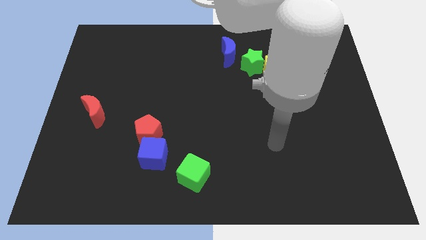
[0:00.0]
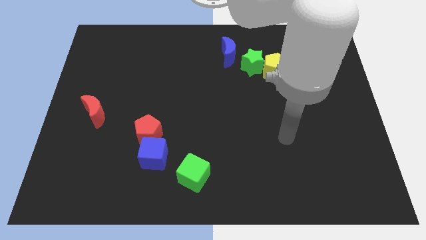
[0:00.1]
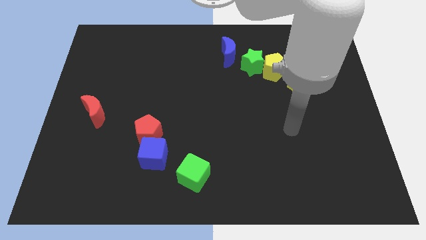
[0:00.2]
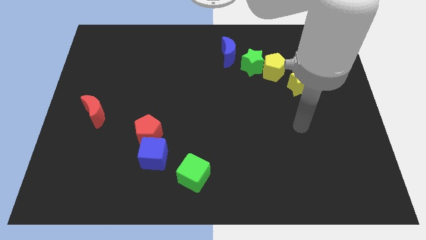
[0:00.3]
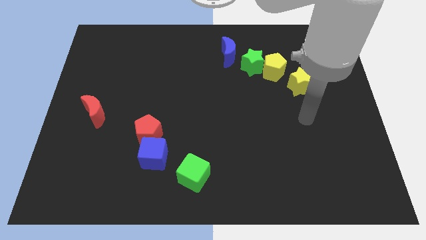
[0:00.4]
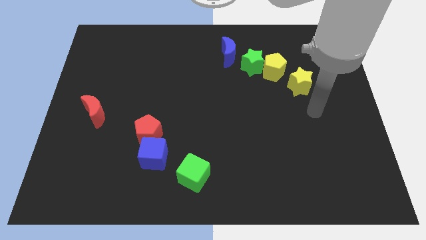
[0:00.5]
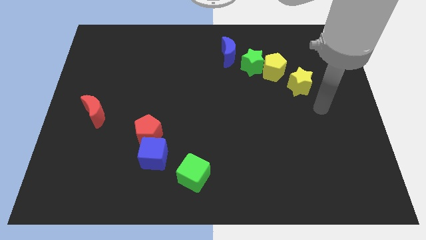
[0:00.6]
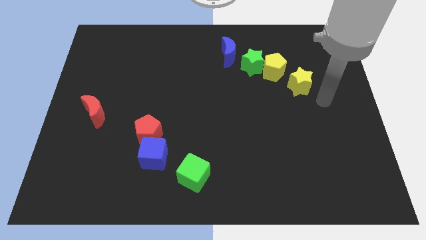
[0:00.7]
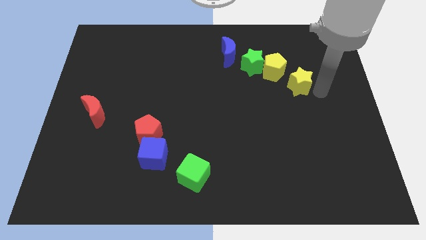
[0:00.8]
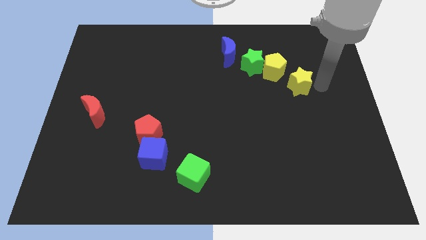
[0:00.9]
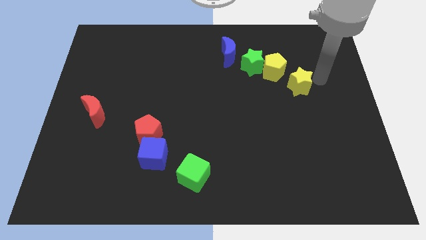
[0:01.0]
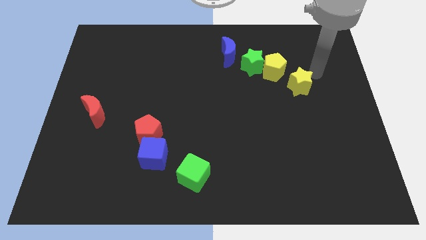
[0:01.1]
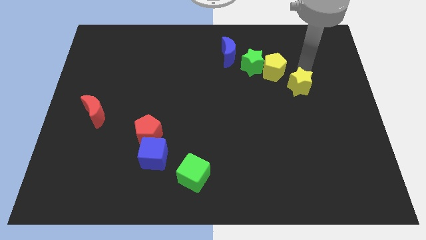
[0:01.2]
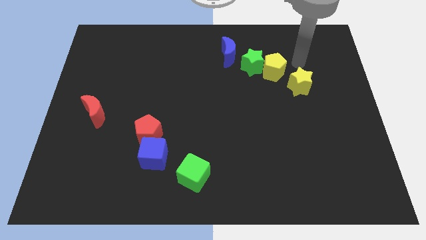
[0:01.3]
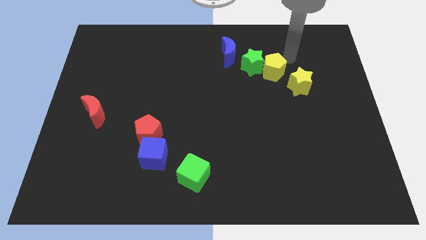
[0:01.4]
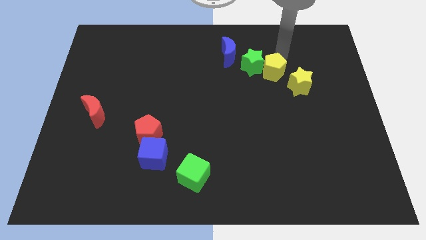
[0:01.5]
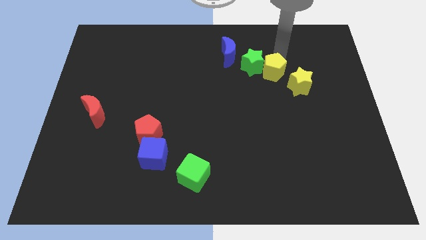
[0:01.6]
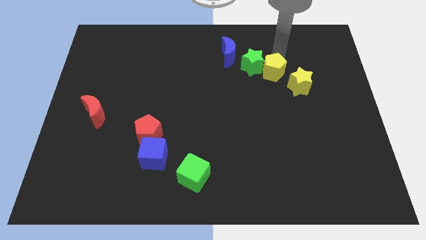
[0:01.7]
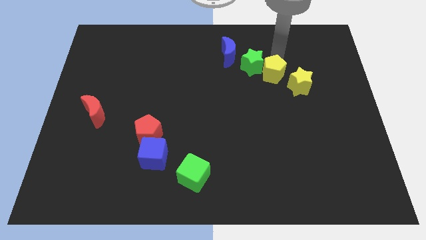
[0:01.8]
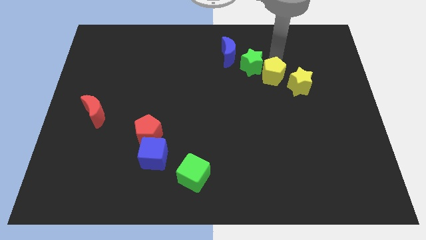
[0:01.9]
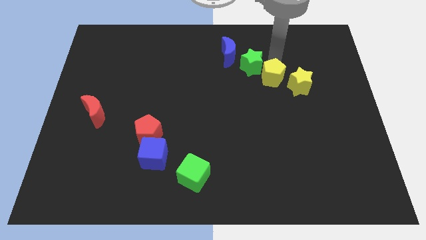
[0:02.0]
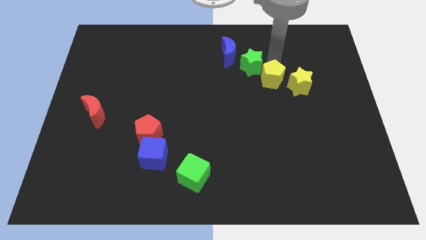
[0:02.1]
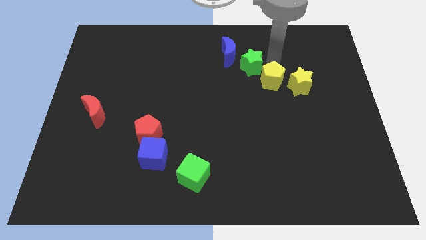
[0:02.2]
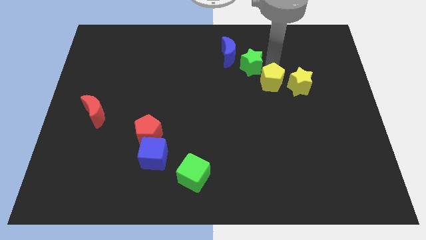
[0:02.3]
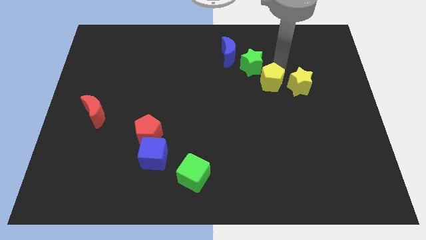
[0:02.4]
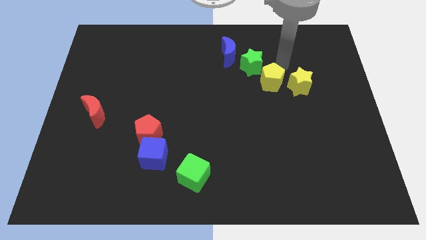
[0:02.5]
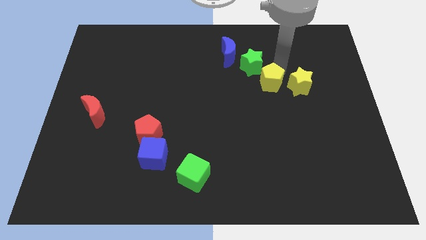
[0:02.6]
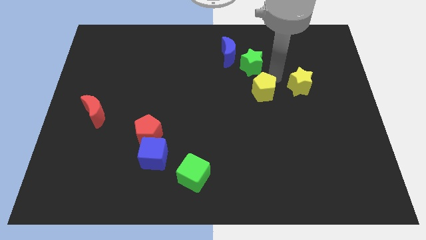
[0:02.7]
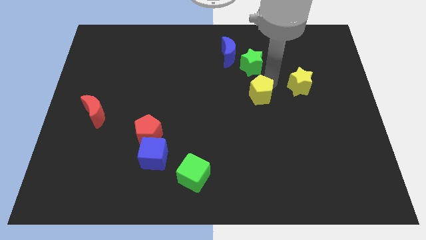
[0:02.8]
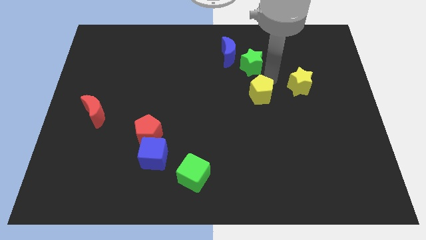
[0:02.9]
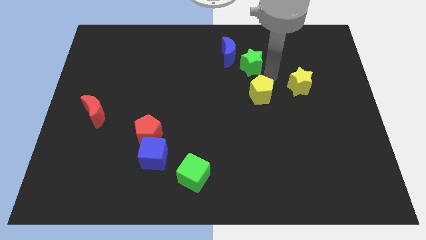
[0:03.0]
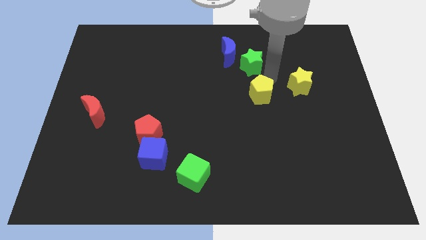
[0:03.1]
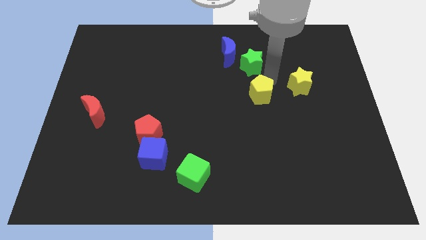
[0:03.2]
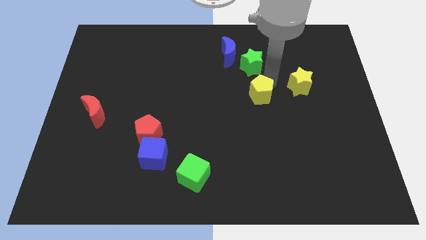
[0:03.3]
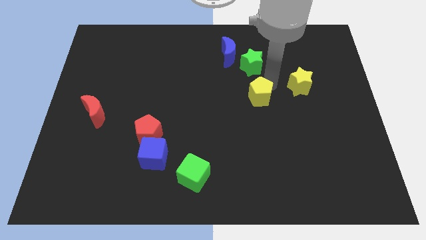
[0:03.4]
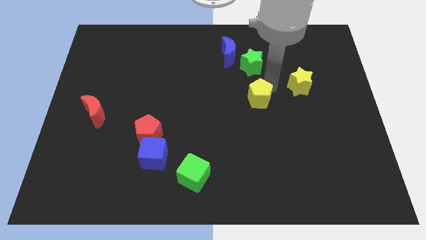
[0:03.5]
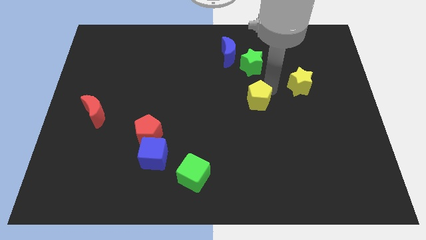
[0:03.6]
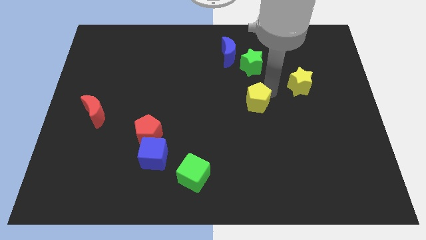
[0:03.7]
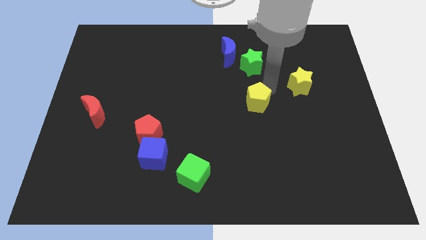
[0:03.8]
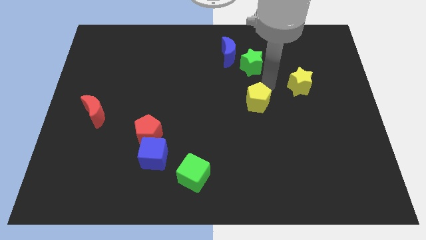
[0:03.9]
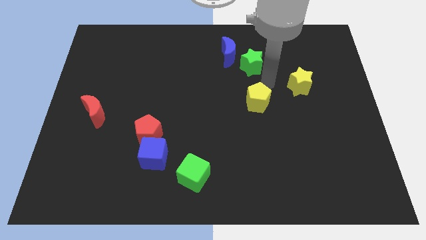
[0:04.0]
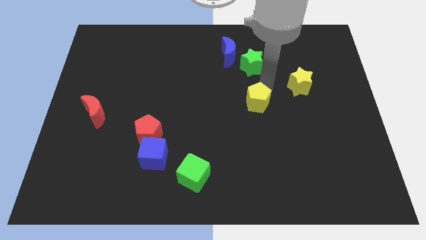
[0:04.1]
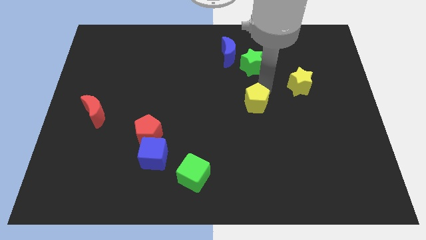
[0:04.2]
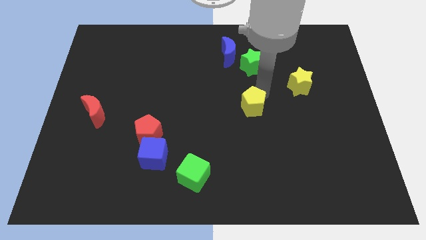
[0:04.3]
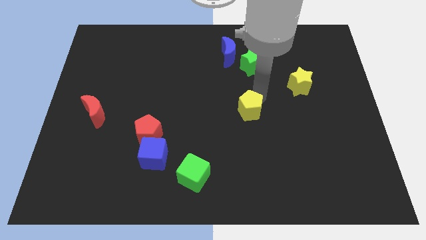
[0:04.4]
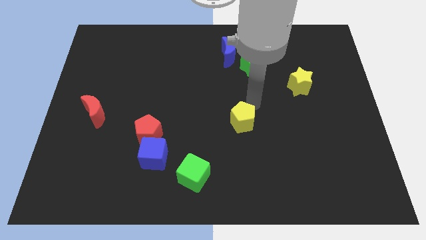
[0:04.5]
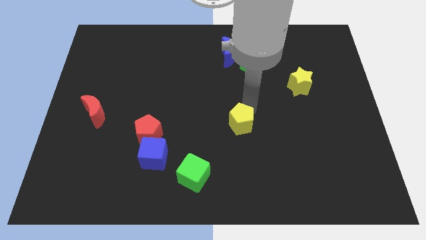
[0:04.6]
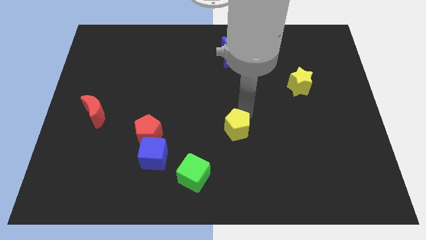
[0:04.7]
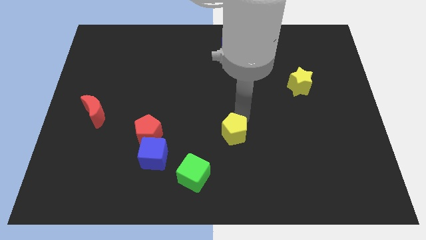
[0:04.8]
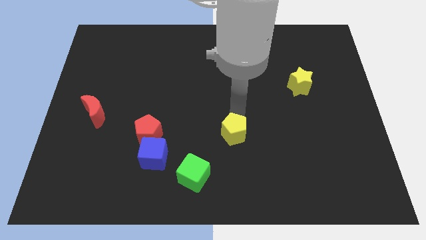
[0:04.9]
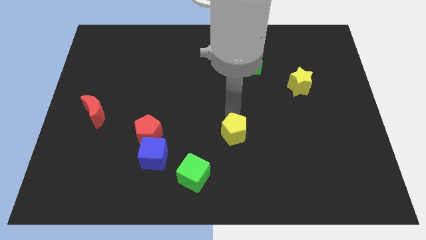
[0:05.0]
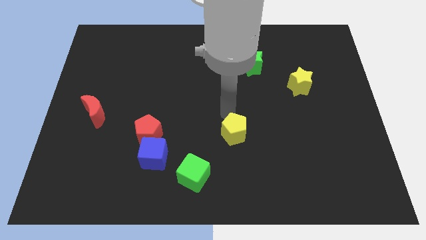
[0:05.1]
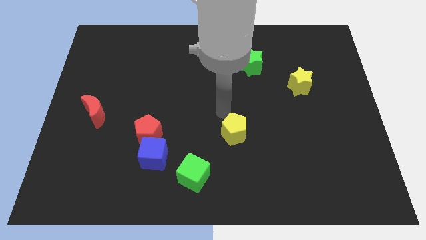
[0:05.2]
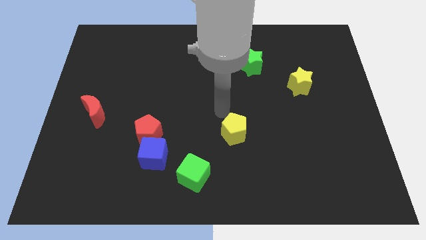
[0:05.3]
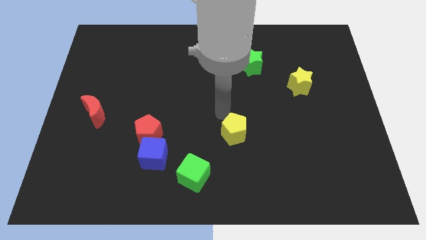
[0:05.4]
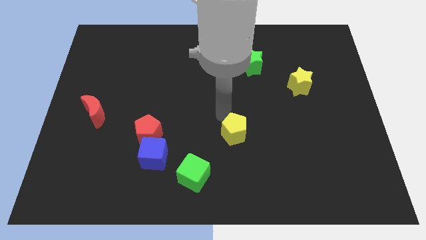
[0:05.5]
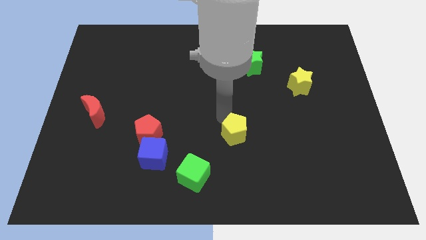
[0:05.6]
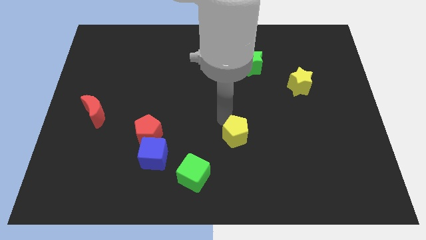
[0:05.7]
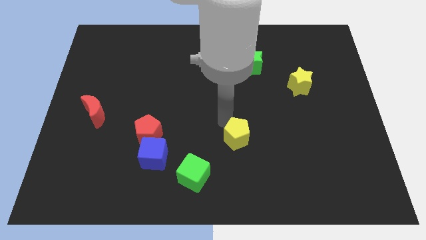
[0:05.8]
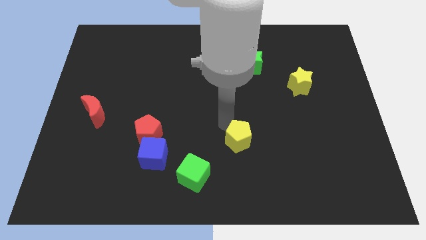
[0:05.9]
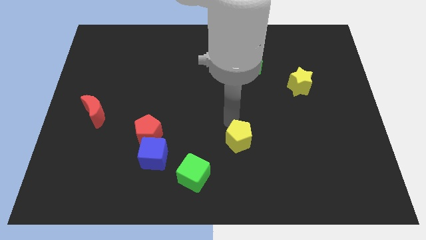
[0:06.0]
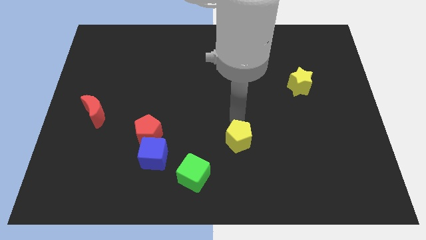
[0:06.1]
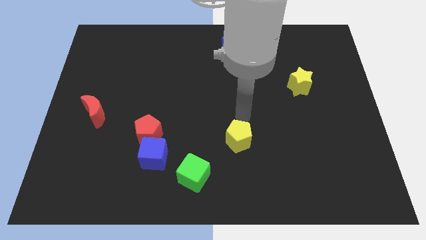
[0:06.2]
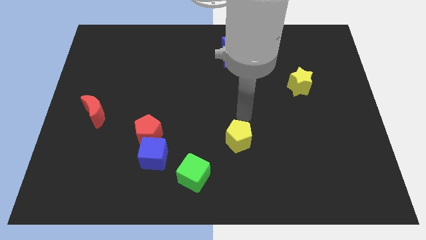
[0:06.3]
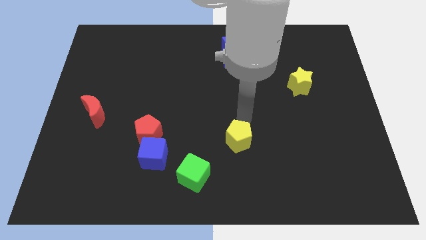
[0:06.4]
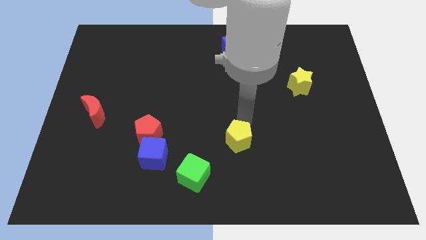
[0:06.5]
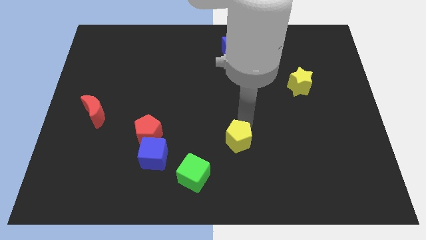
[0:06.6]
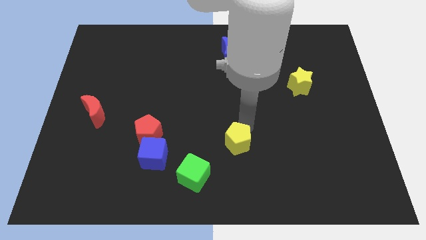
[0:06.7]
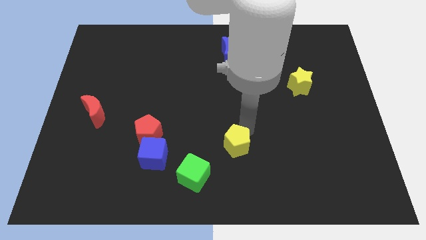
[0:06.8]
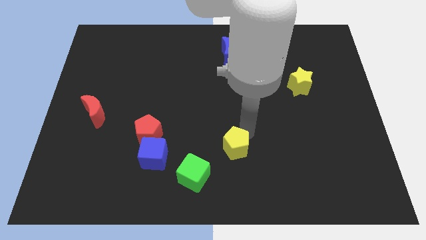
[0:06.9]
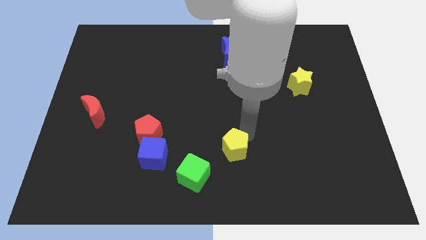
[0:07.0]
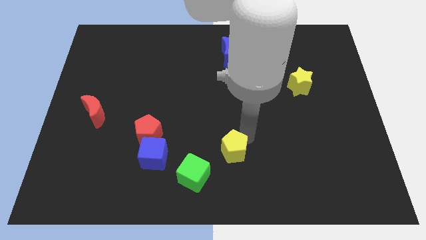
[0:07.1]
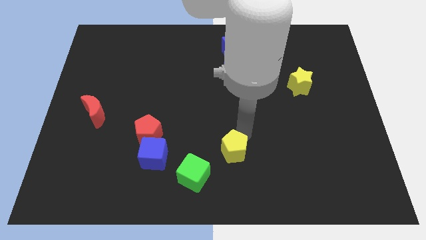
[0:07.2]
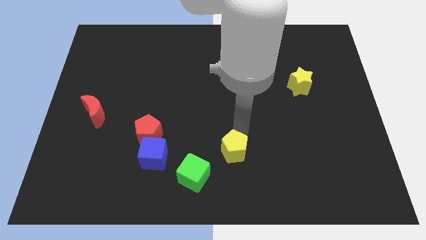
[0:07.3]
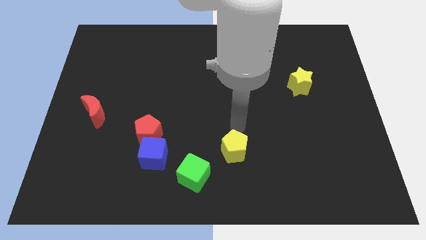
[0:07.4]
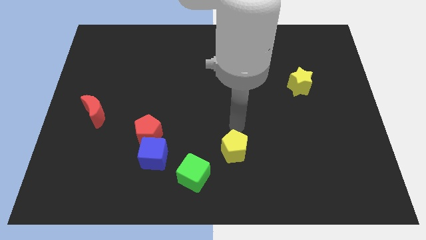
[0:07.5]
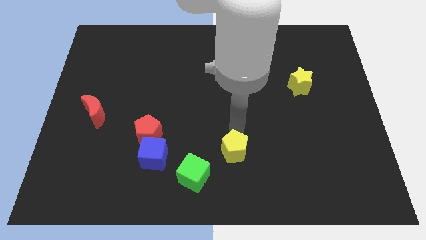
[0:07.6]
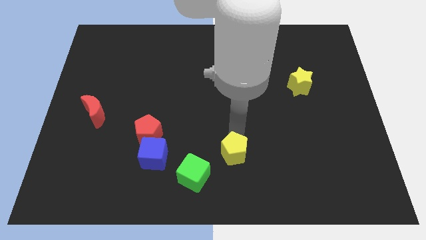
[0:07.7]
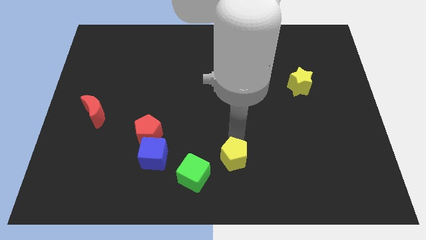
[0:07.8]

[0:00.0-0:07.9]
move the yellow pentagon to the bottom
